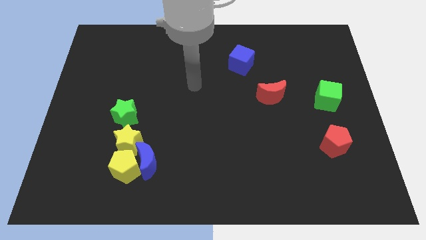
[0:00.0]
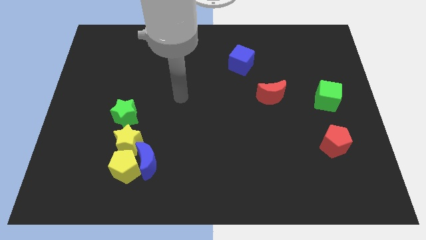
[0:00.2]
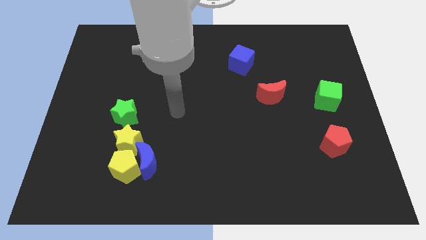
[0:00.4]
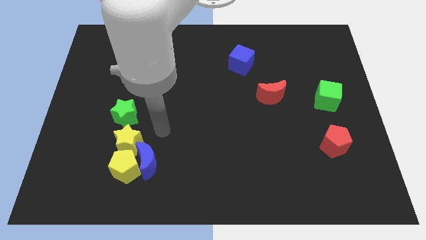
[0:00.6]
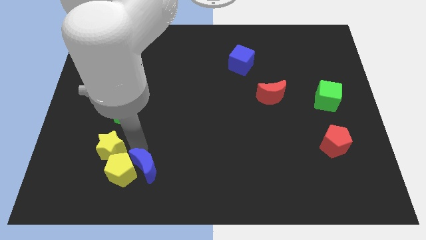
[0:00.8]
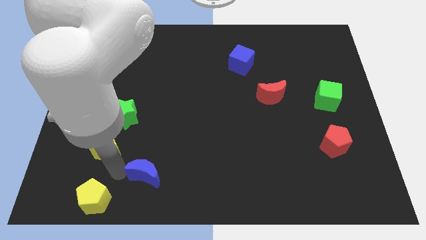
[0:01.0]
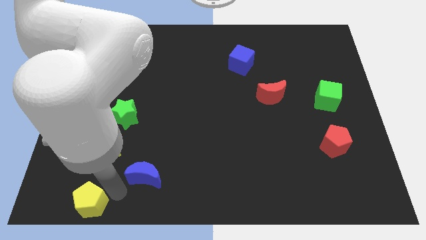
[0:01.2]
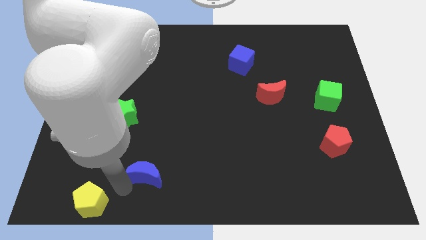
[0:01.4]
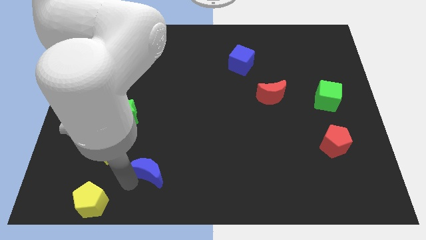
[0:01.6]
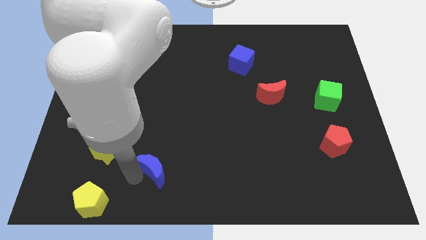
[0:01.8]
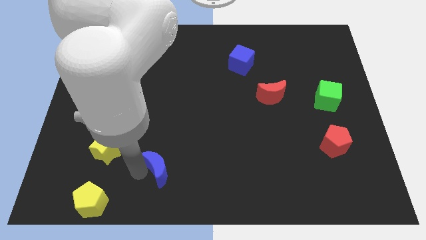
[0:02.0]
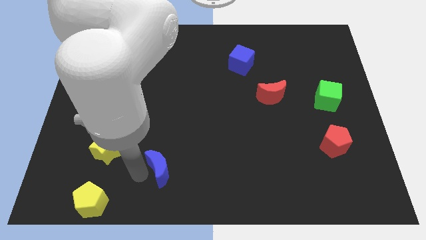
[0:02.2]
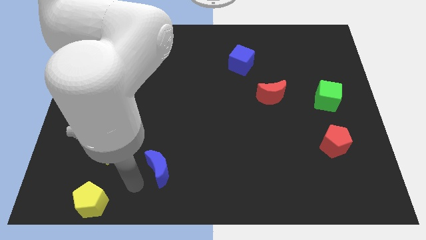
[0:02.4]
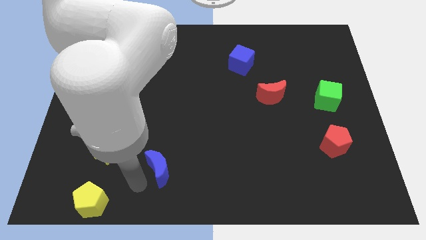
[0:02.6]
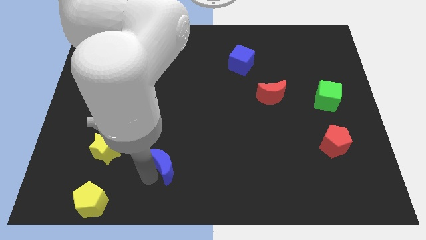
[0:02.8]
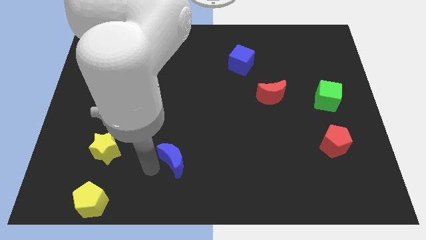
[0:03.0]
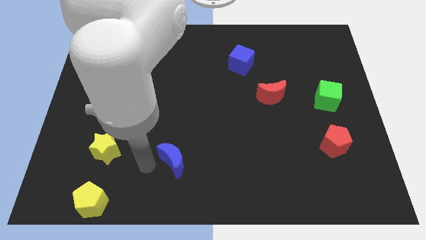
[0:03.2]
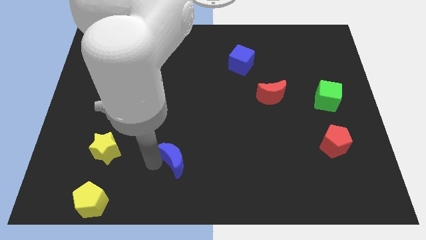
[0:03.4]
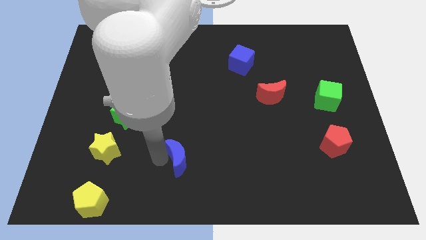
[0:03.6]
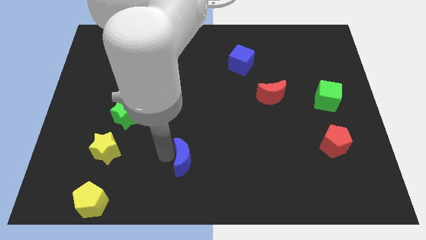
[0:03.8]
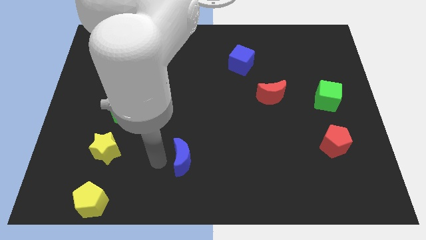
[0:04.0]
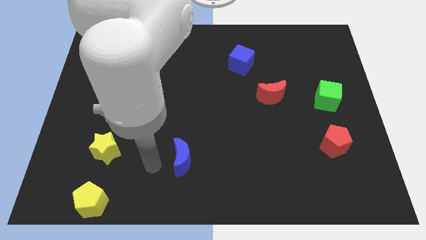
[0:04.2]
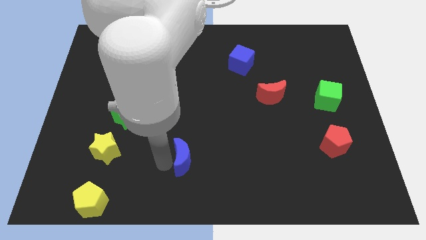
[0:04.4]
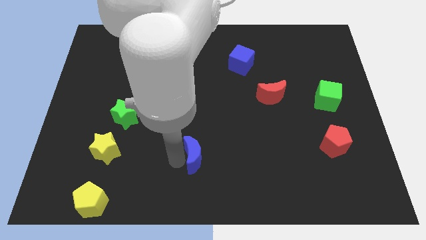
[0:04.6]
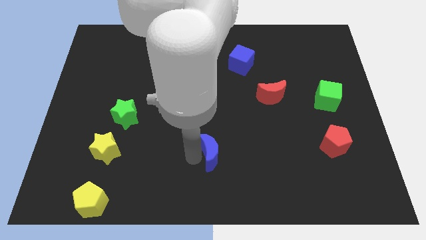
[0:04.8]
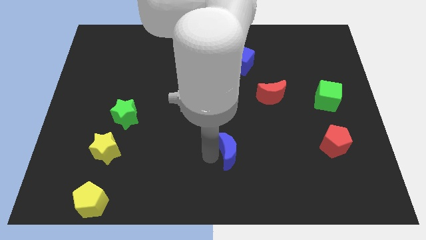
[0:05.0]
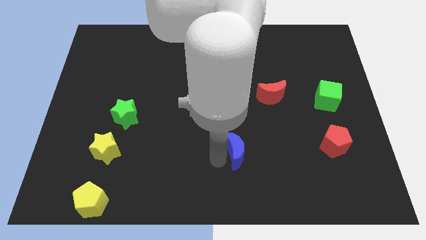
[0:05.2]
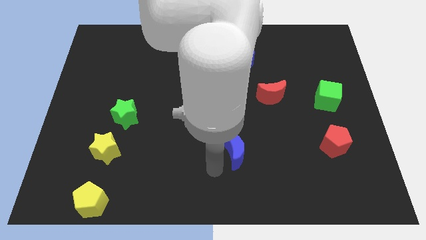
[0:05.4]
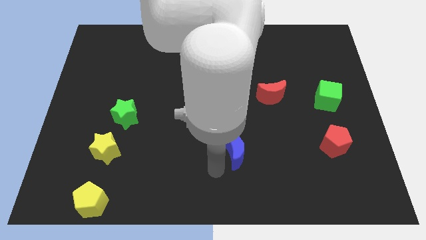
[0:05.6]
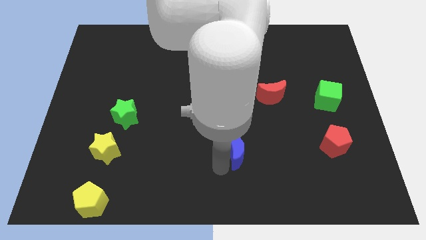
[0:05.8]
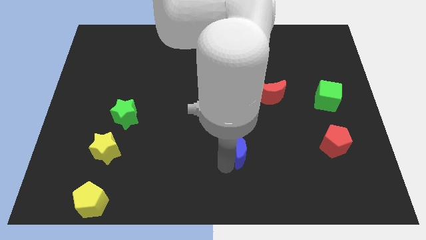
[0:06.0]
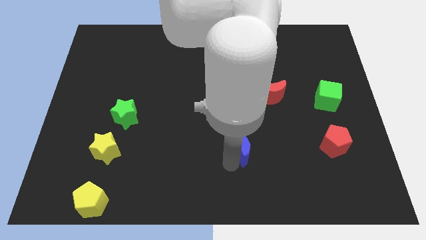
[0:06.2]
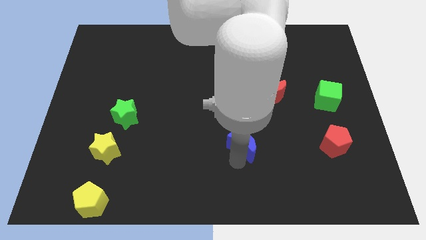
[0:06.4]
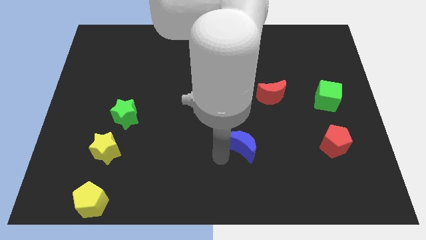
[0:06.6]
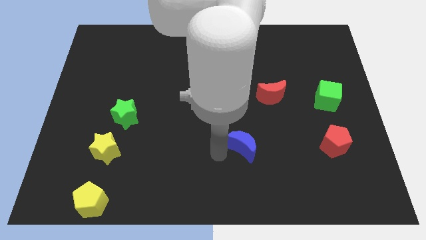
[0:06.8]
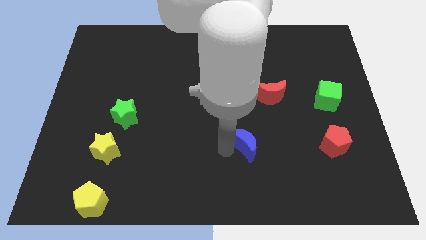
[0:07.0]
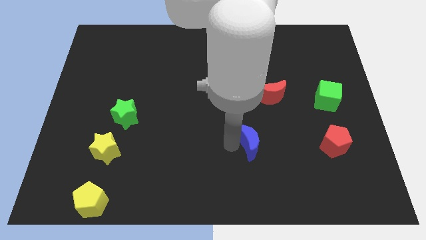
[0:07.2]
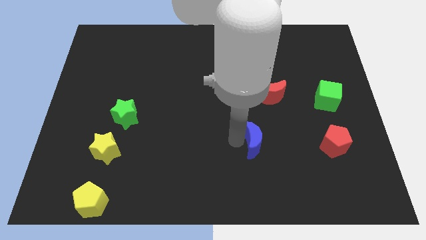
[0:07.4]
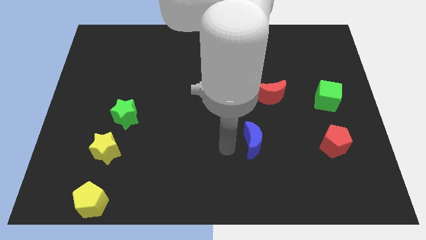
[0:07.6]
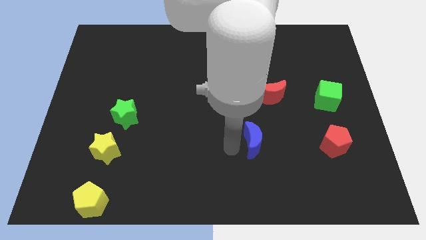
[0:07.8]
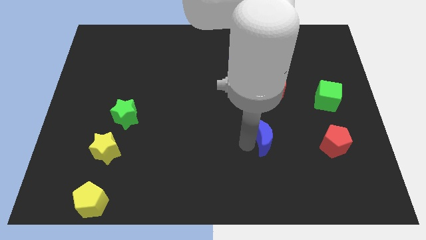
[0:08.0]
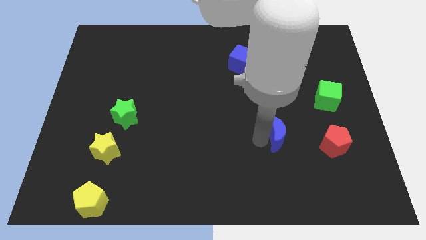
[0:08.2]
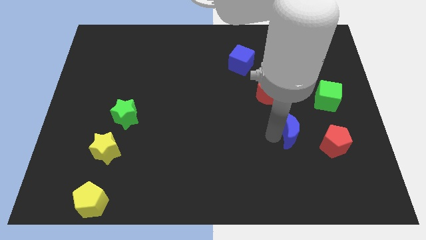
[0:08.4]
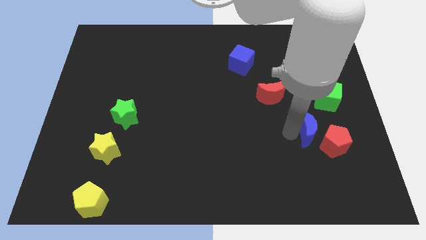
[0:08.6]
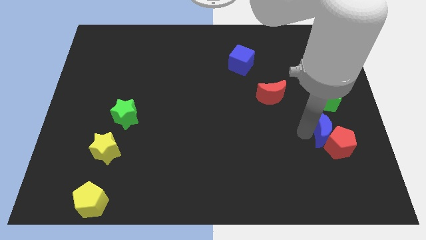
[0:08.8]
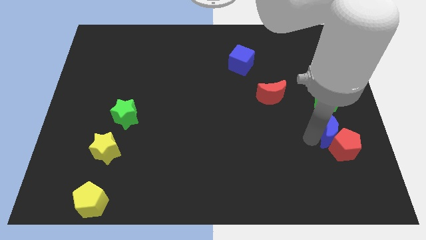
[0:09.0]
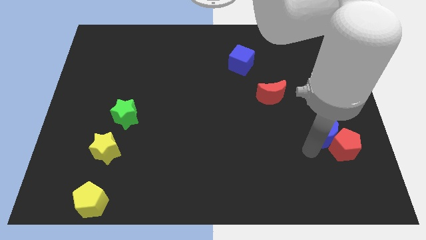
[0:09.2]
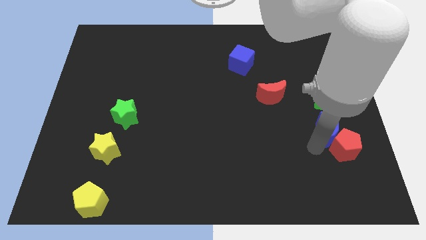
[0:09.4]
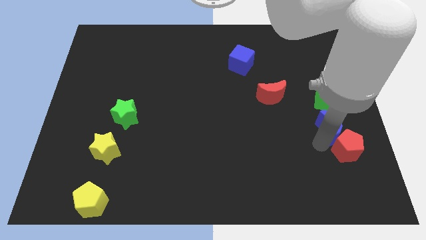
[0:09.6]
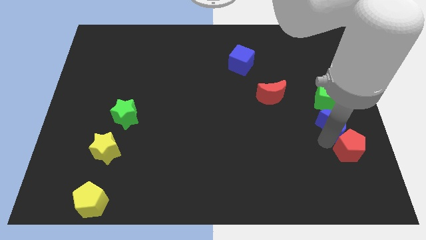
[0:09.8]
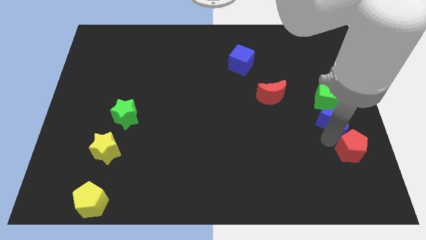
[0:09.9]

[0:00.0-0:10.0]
push the blue moon to the center right

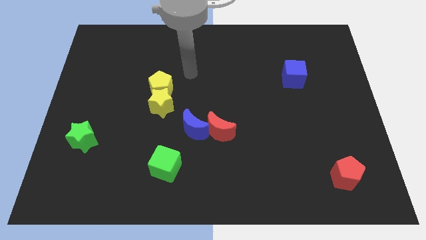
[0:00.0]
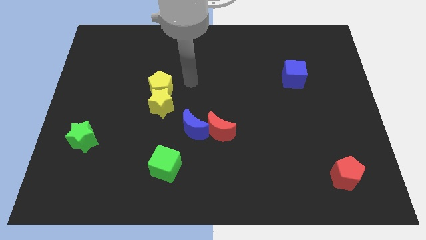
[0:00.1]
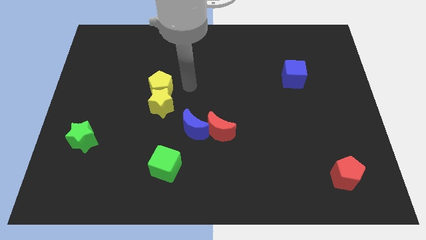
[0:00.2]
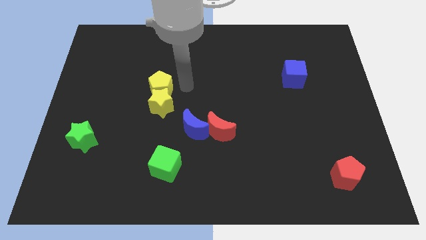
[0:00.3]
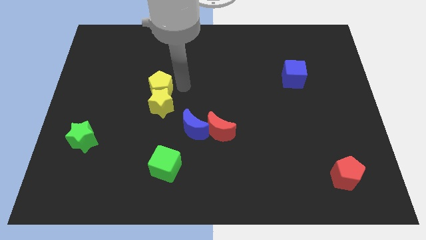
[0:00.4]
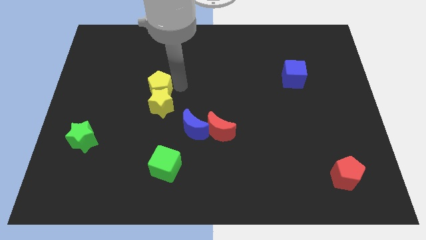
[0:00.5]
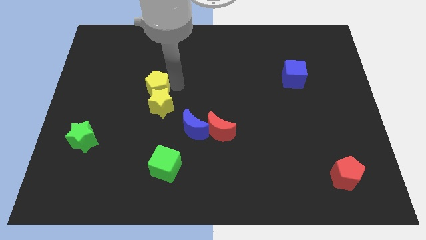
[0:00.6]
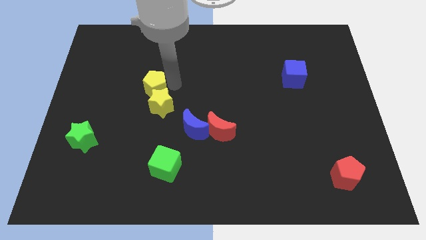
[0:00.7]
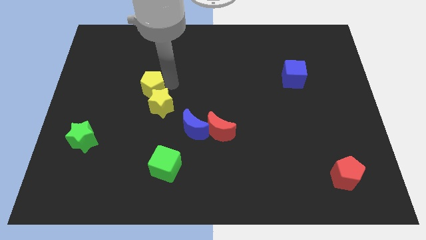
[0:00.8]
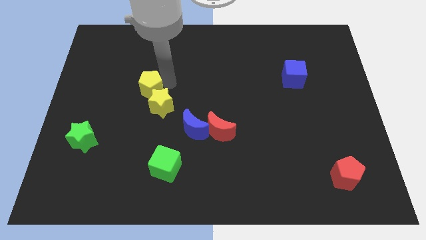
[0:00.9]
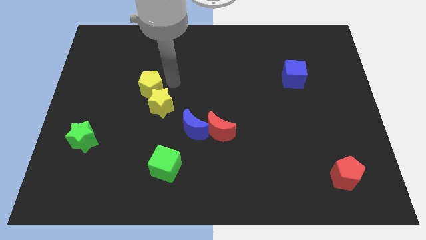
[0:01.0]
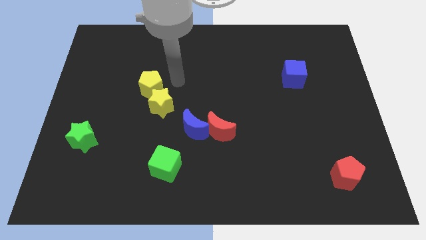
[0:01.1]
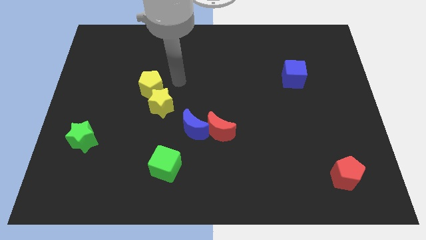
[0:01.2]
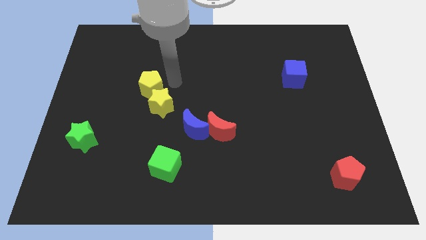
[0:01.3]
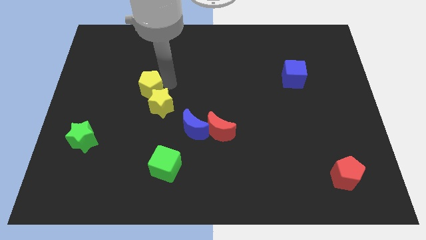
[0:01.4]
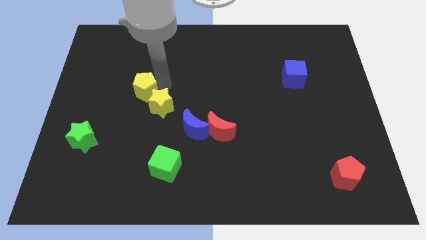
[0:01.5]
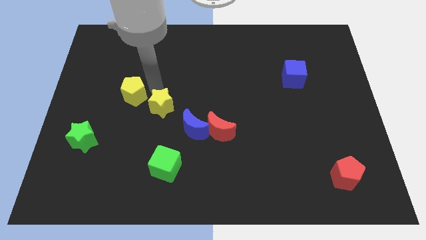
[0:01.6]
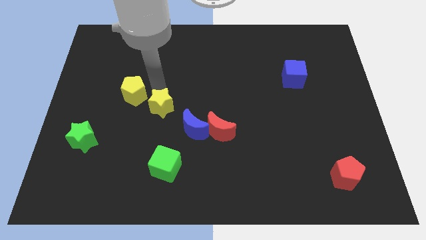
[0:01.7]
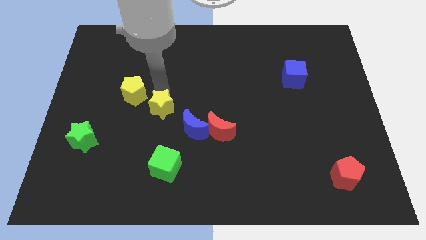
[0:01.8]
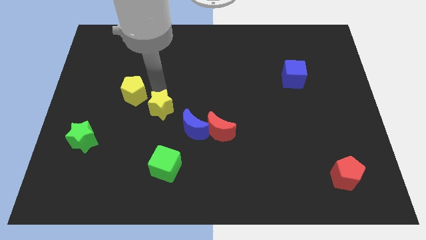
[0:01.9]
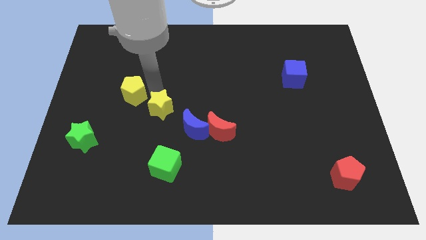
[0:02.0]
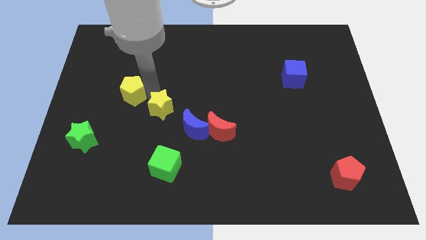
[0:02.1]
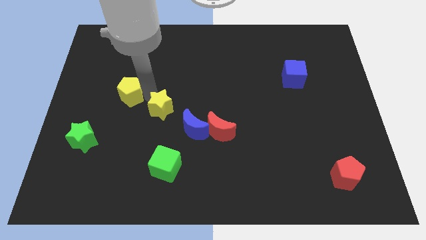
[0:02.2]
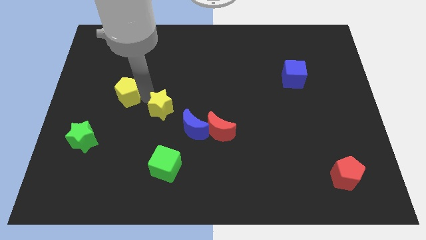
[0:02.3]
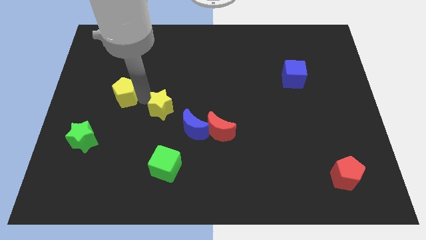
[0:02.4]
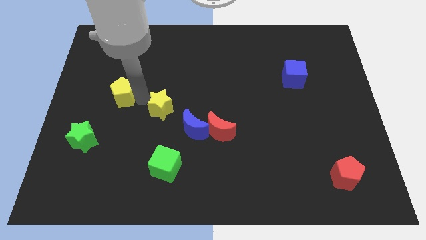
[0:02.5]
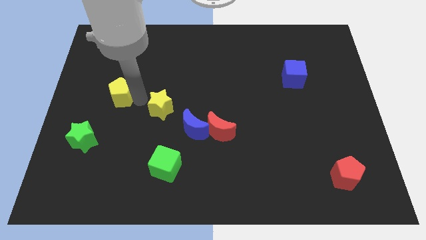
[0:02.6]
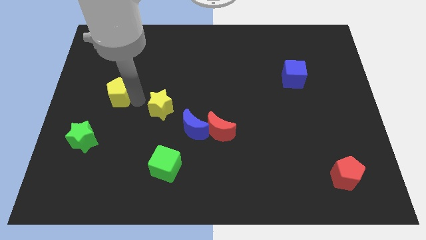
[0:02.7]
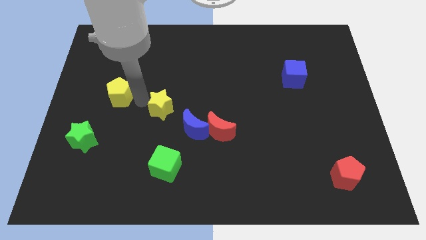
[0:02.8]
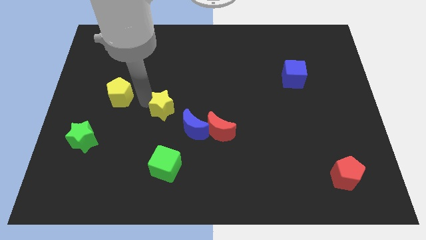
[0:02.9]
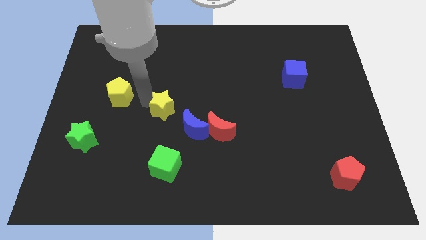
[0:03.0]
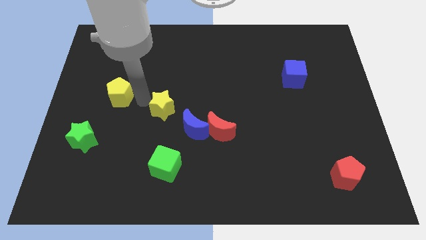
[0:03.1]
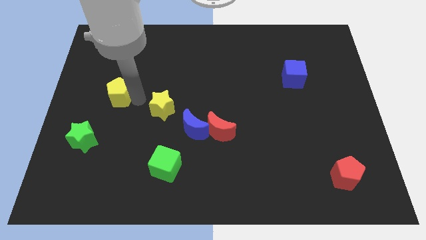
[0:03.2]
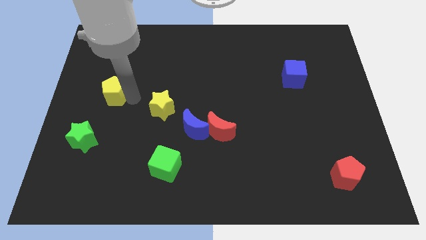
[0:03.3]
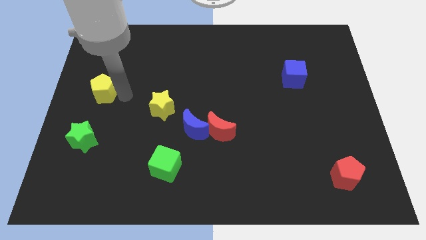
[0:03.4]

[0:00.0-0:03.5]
push the yellow pentagon to the left side of the board
